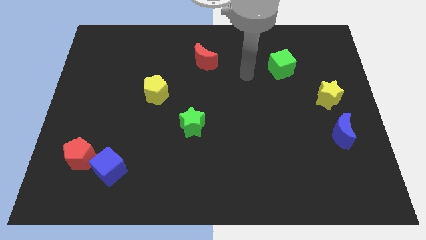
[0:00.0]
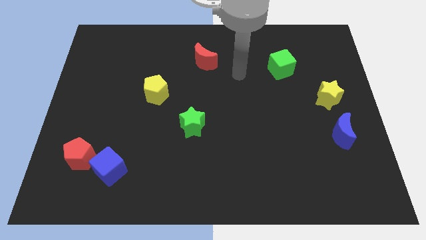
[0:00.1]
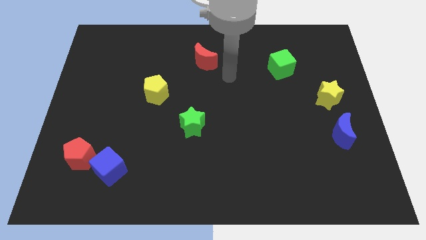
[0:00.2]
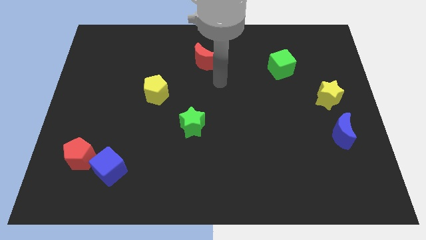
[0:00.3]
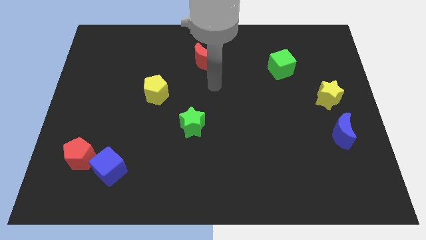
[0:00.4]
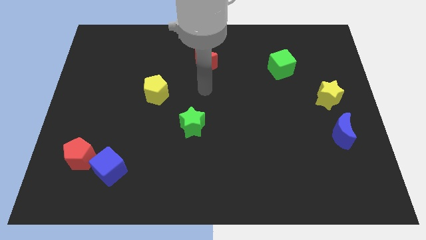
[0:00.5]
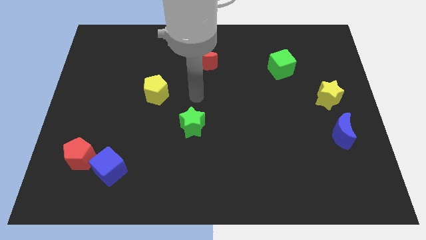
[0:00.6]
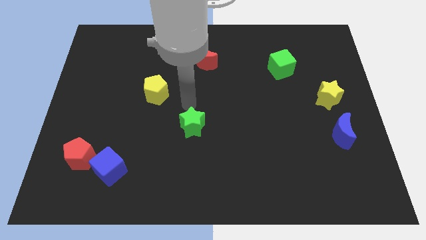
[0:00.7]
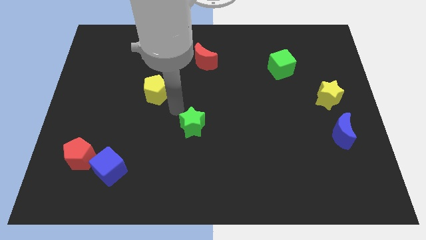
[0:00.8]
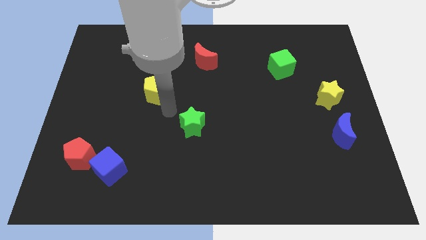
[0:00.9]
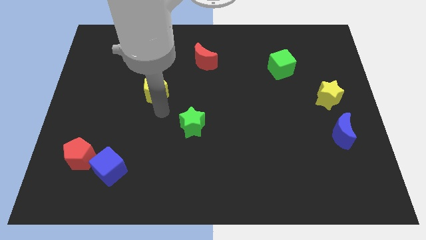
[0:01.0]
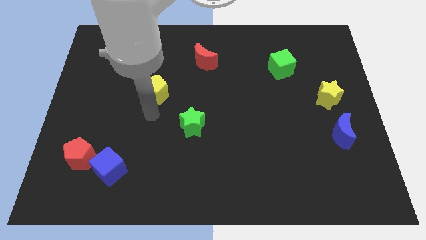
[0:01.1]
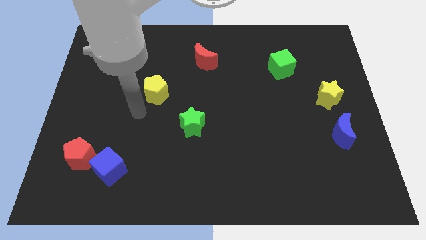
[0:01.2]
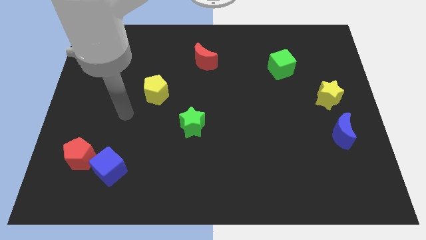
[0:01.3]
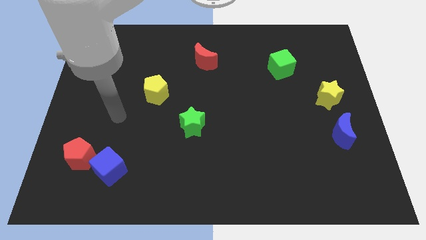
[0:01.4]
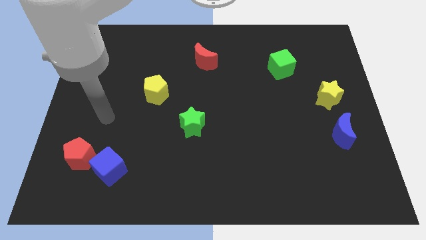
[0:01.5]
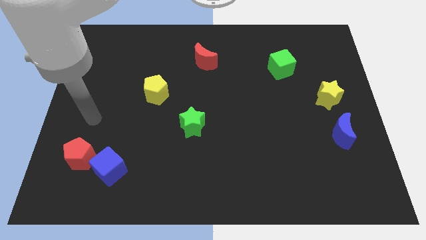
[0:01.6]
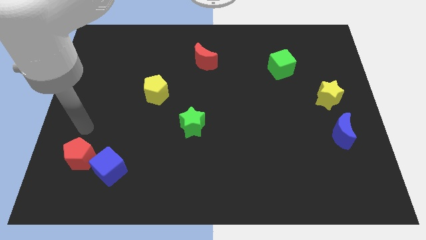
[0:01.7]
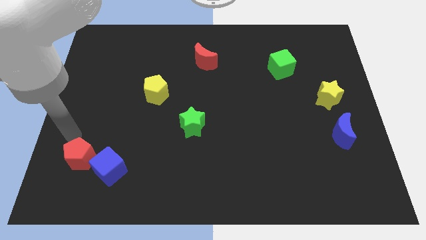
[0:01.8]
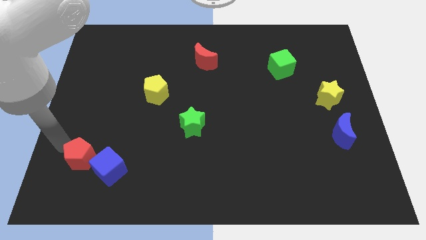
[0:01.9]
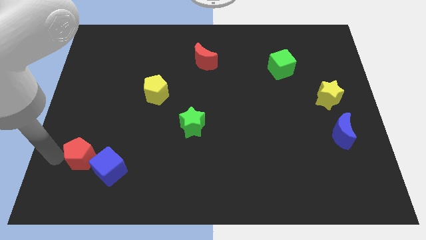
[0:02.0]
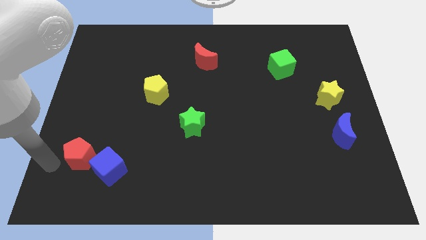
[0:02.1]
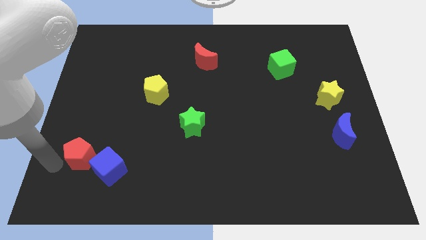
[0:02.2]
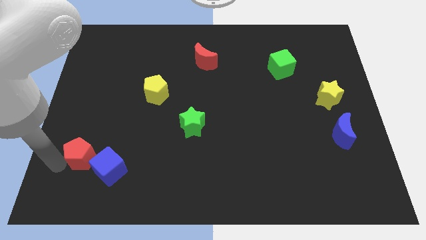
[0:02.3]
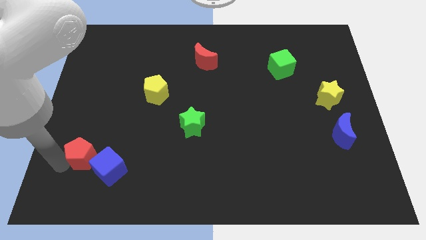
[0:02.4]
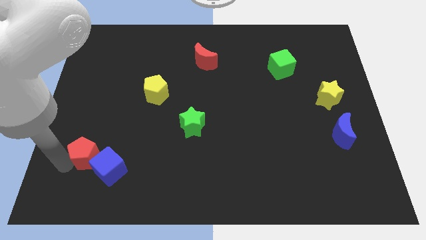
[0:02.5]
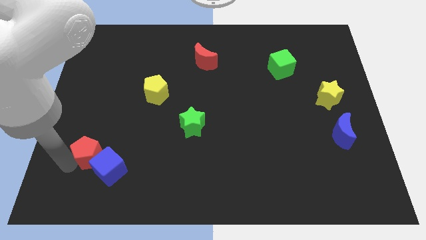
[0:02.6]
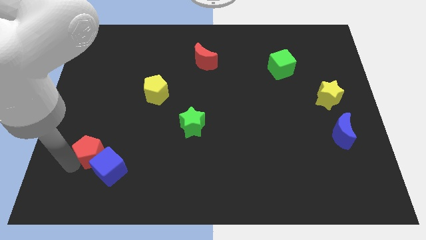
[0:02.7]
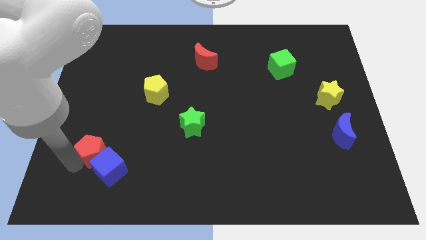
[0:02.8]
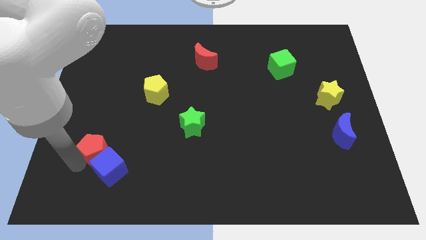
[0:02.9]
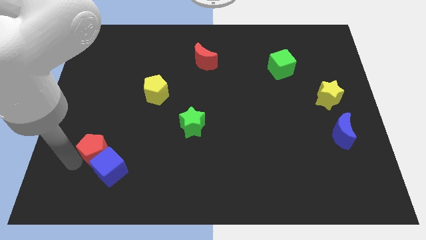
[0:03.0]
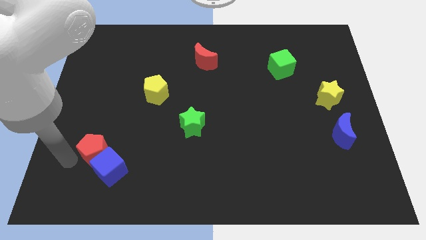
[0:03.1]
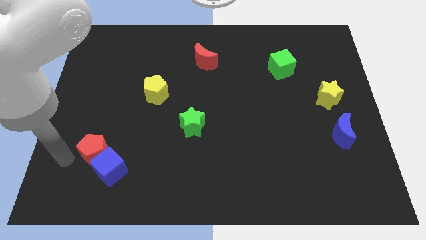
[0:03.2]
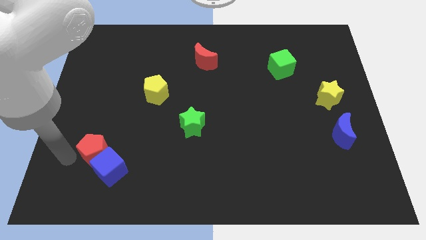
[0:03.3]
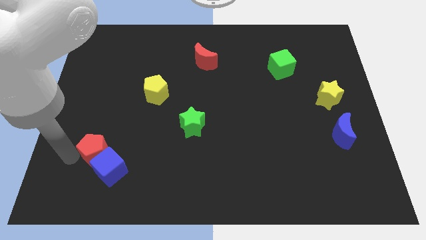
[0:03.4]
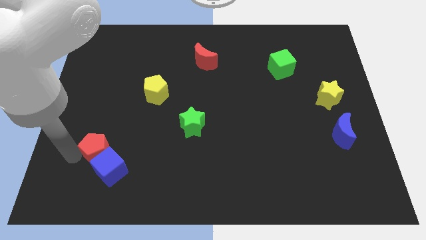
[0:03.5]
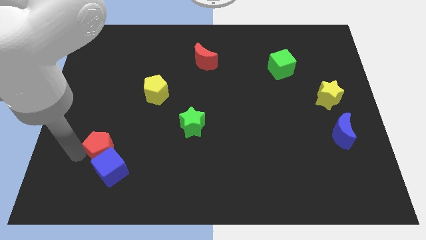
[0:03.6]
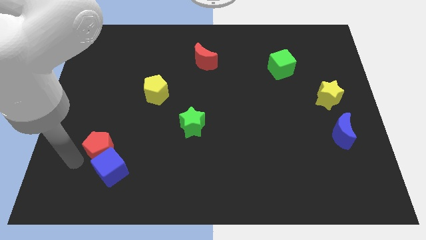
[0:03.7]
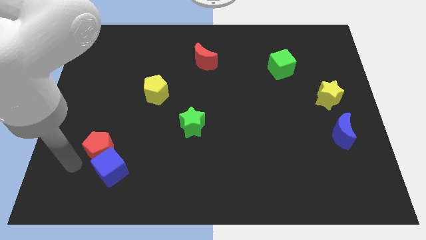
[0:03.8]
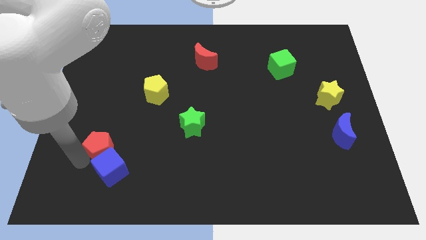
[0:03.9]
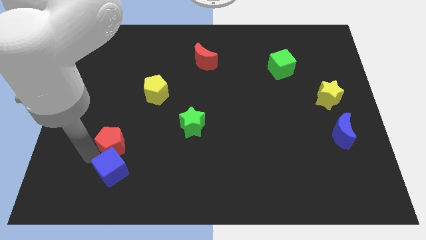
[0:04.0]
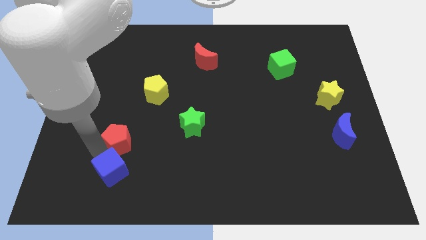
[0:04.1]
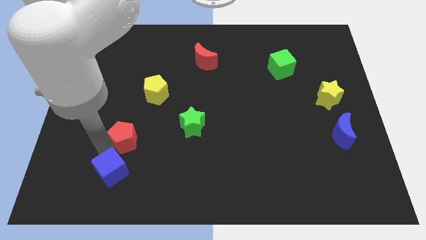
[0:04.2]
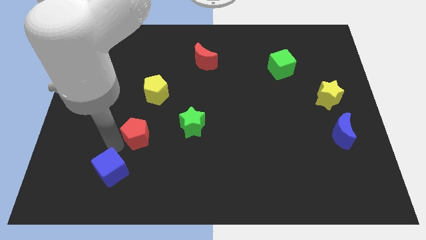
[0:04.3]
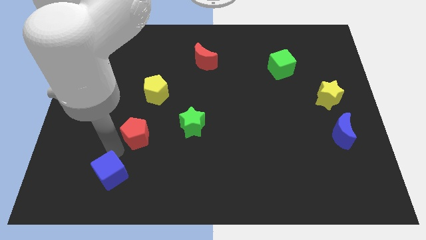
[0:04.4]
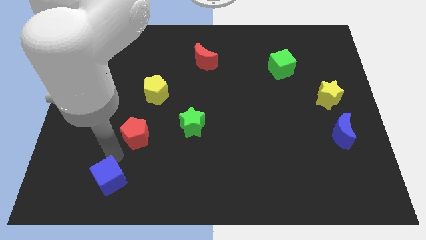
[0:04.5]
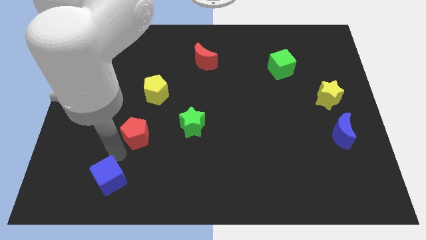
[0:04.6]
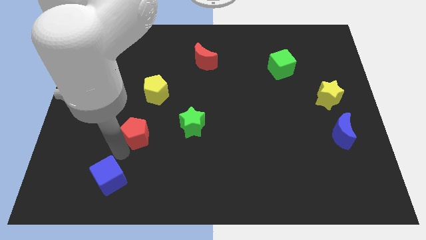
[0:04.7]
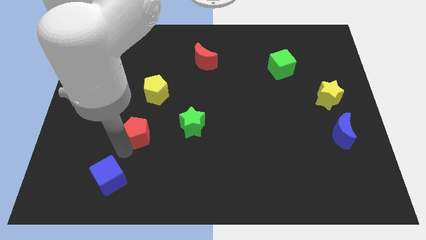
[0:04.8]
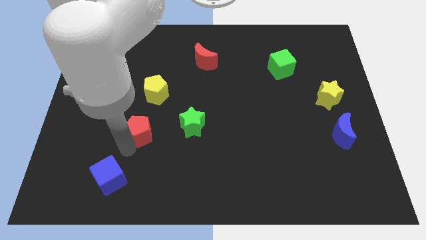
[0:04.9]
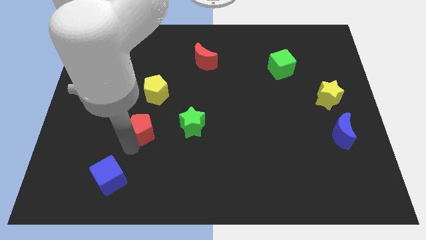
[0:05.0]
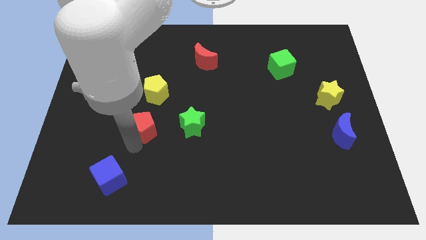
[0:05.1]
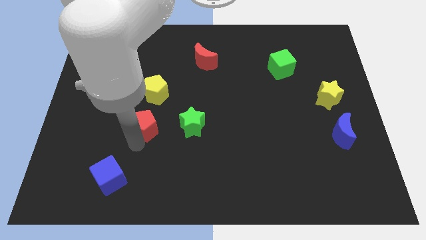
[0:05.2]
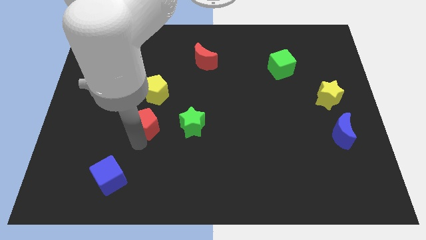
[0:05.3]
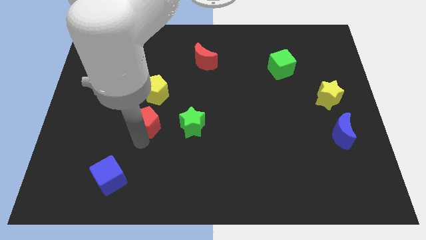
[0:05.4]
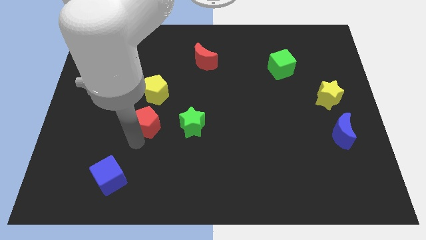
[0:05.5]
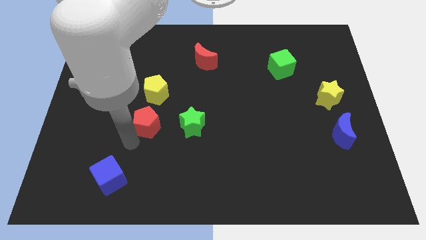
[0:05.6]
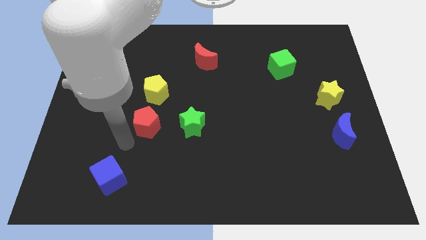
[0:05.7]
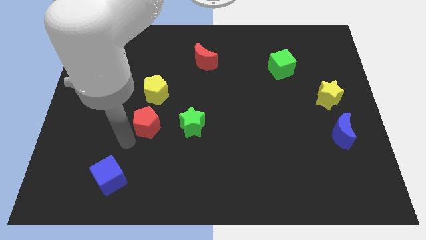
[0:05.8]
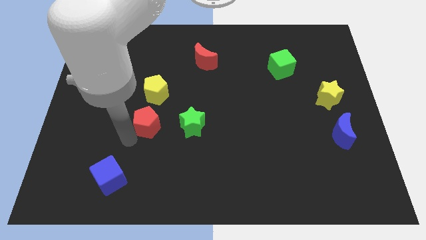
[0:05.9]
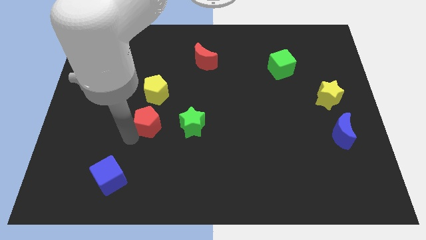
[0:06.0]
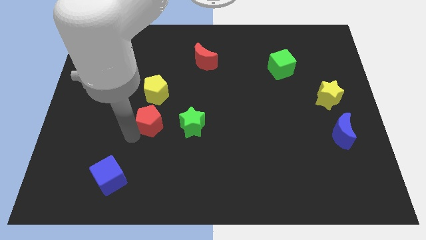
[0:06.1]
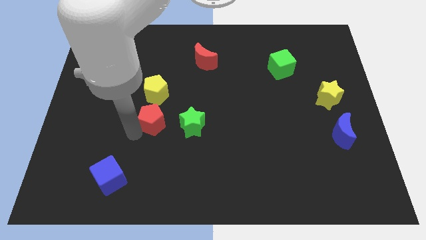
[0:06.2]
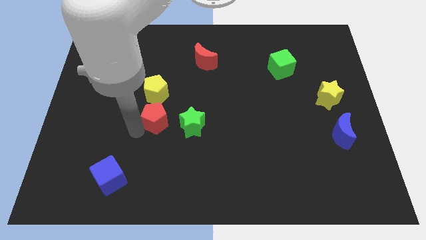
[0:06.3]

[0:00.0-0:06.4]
slide the red pentagon to the top left side of the green star
